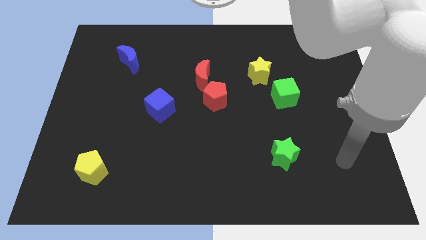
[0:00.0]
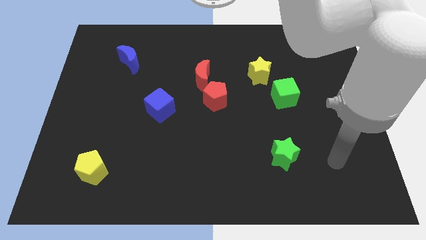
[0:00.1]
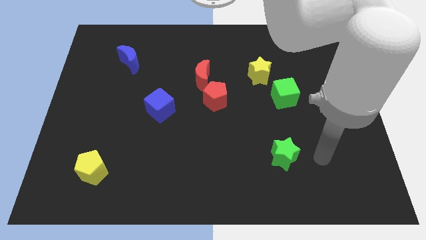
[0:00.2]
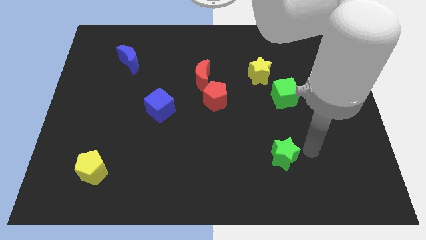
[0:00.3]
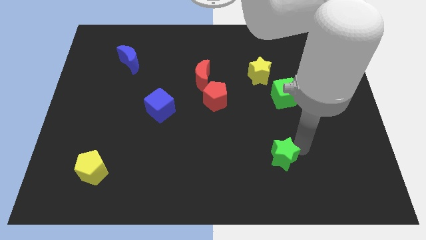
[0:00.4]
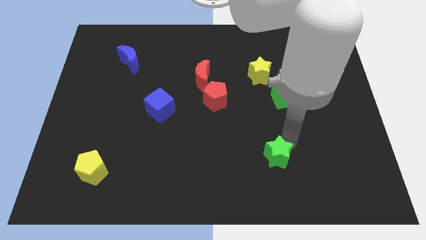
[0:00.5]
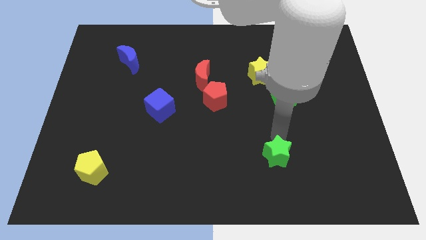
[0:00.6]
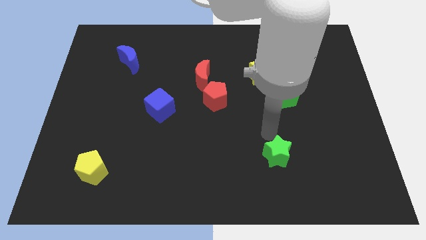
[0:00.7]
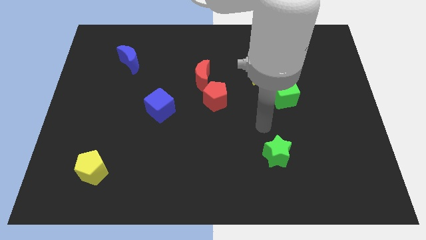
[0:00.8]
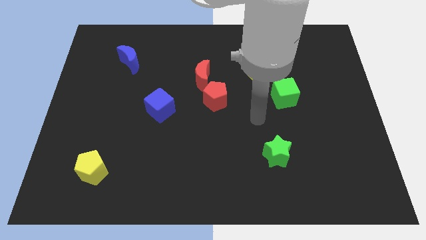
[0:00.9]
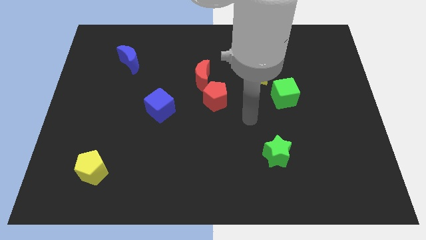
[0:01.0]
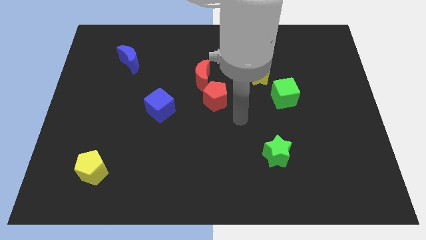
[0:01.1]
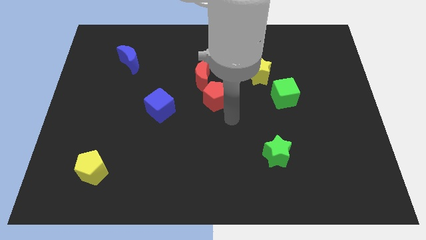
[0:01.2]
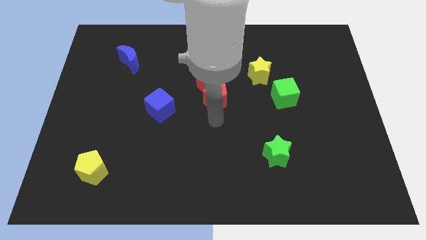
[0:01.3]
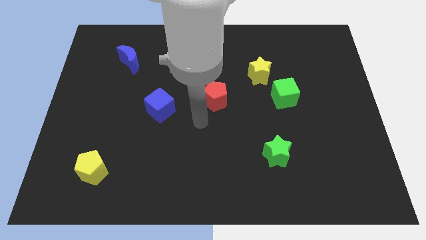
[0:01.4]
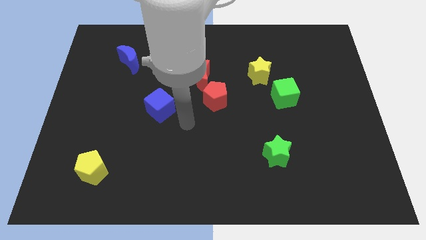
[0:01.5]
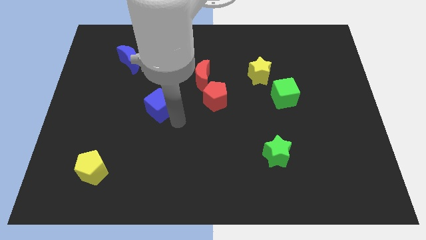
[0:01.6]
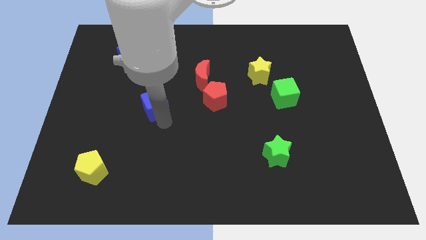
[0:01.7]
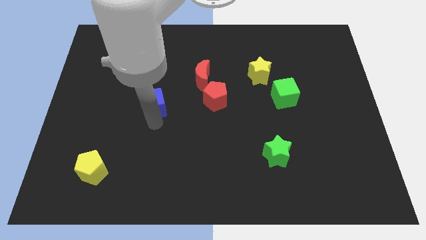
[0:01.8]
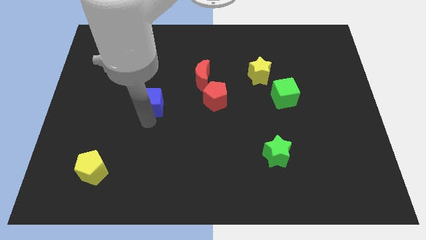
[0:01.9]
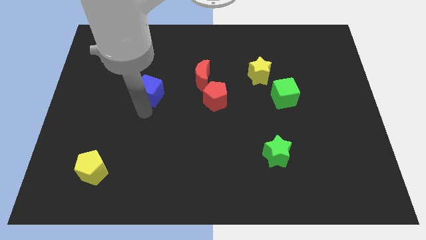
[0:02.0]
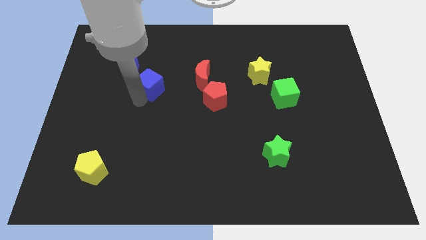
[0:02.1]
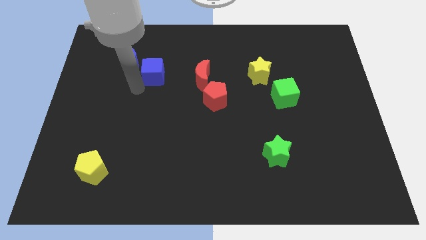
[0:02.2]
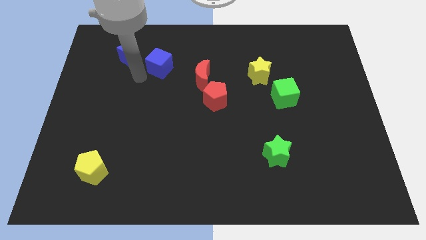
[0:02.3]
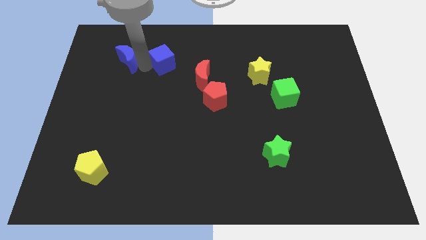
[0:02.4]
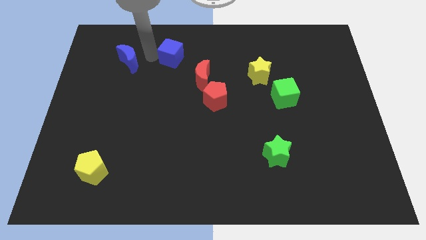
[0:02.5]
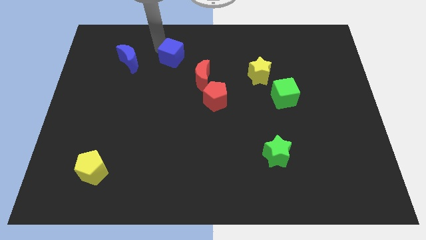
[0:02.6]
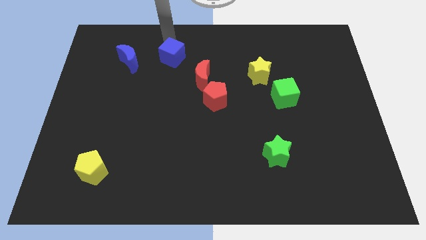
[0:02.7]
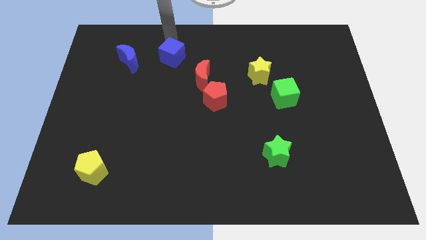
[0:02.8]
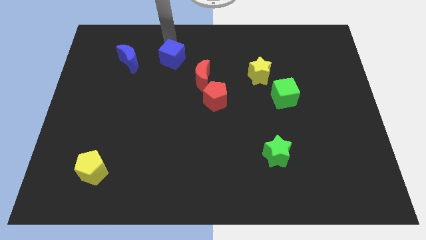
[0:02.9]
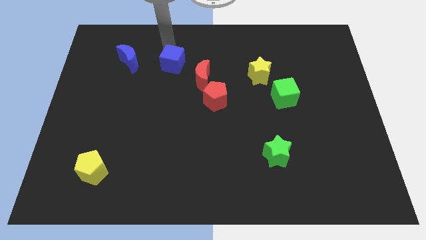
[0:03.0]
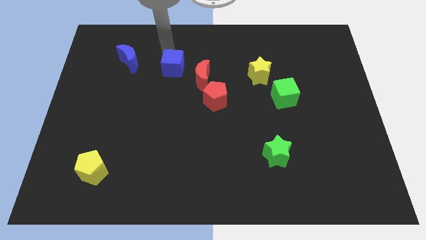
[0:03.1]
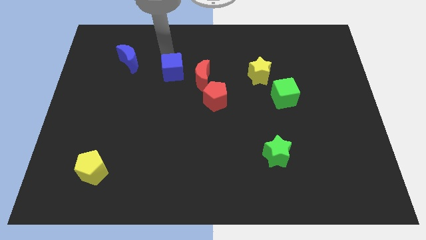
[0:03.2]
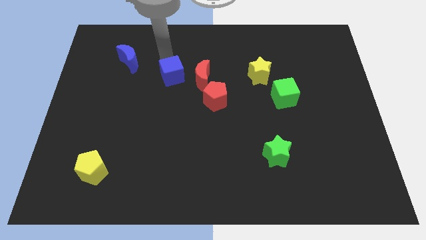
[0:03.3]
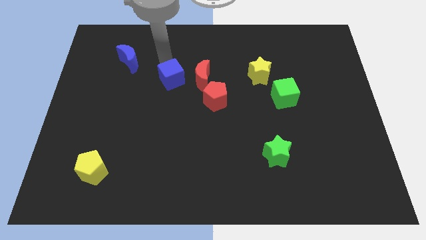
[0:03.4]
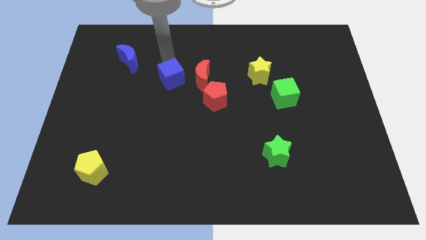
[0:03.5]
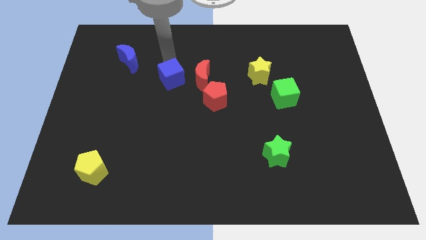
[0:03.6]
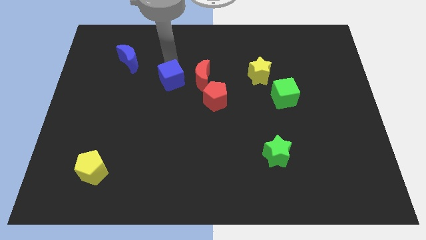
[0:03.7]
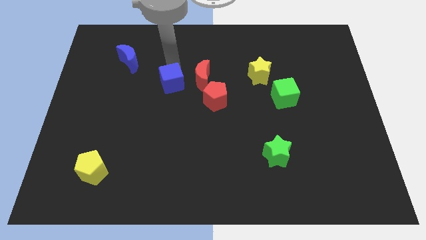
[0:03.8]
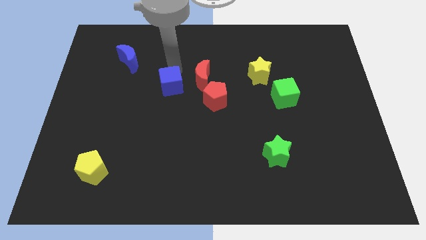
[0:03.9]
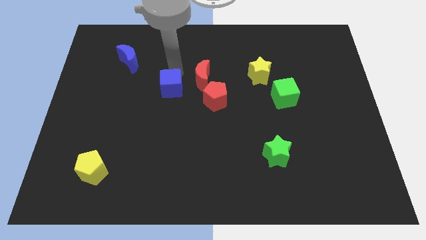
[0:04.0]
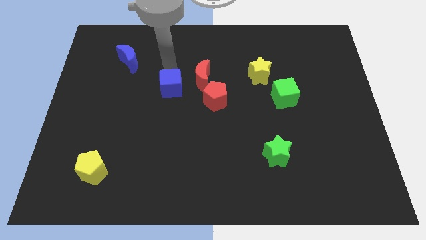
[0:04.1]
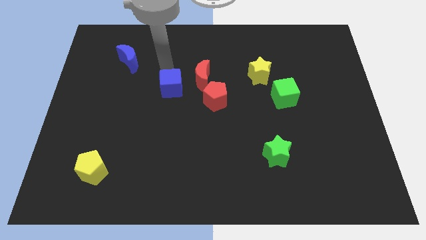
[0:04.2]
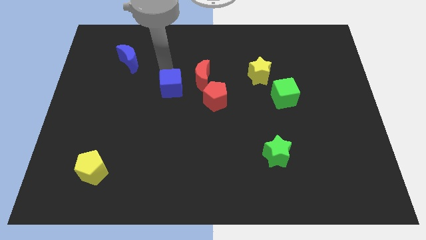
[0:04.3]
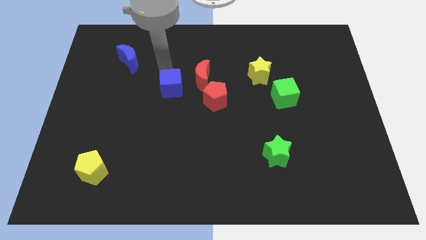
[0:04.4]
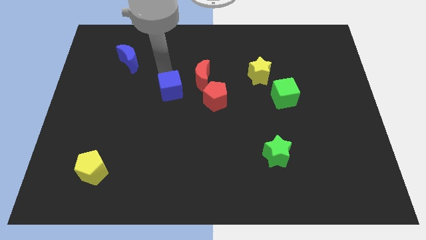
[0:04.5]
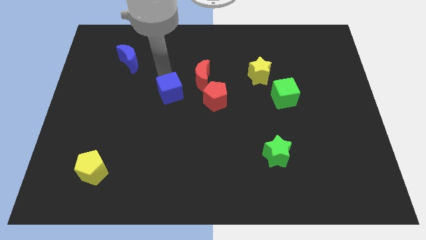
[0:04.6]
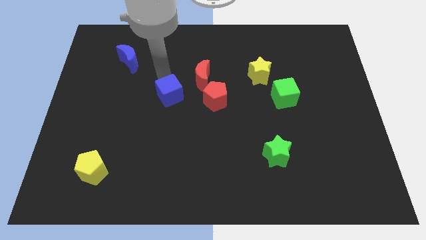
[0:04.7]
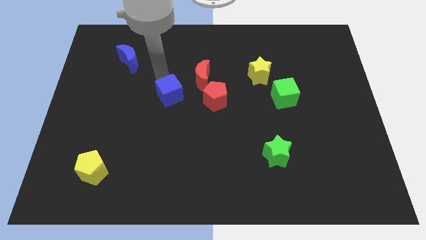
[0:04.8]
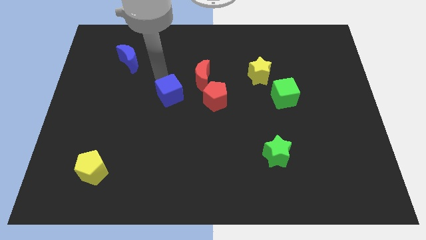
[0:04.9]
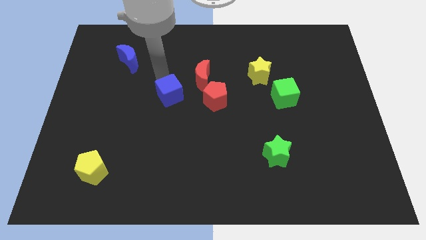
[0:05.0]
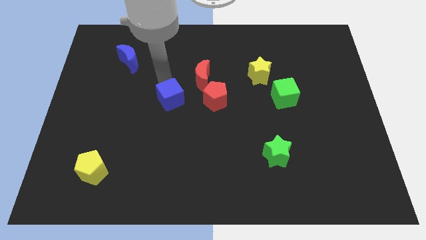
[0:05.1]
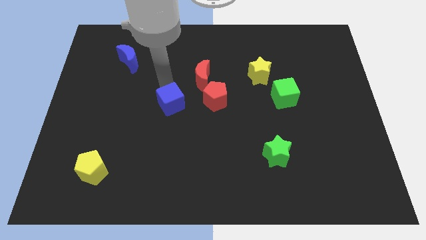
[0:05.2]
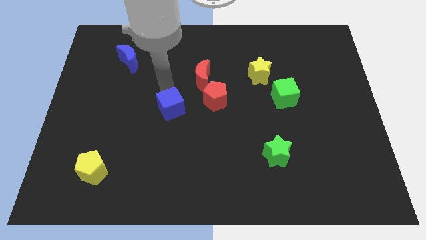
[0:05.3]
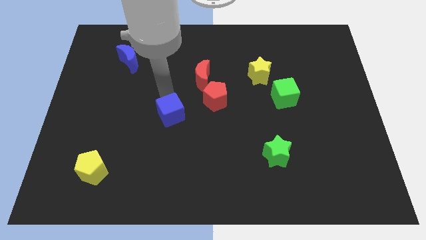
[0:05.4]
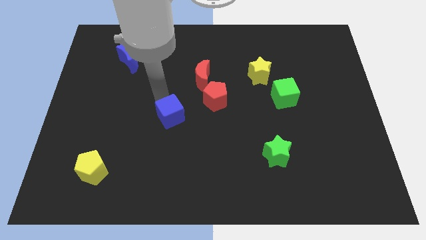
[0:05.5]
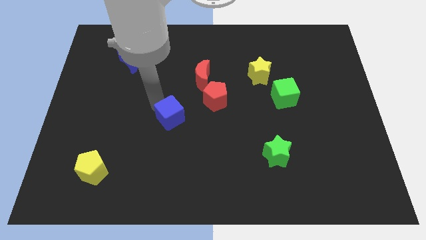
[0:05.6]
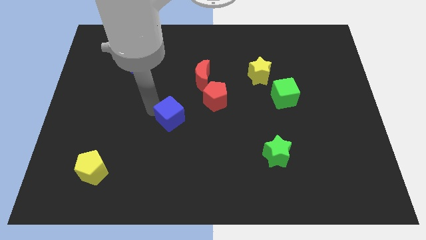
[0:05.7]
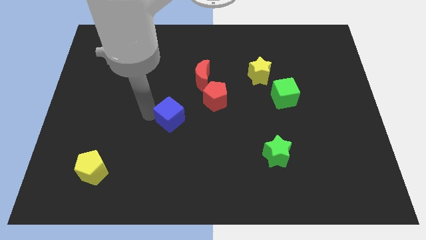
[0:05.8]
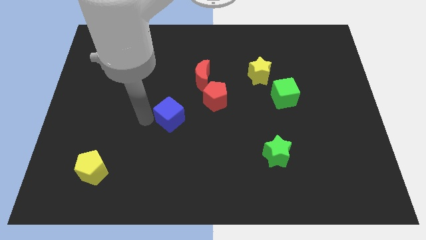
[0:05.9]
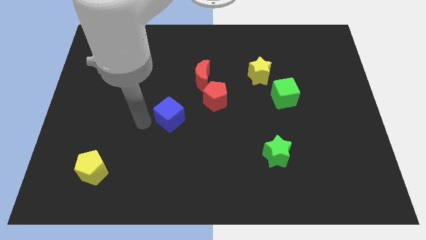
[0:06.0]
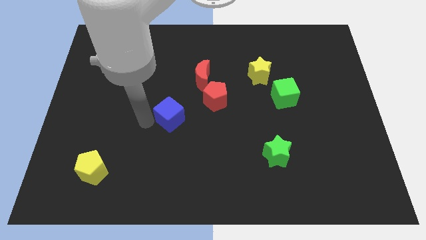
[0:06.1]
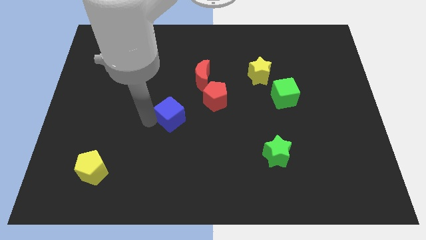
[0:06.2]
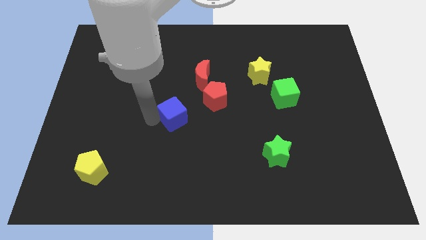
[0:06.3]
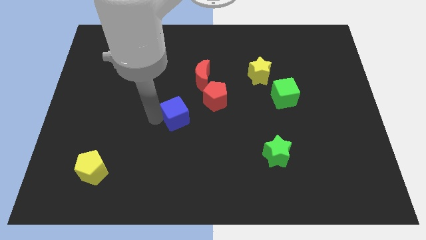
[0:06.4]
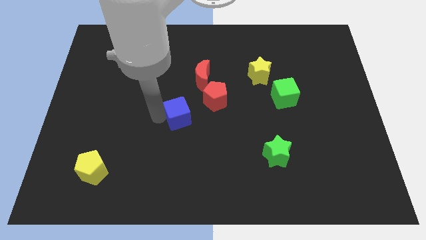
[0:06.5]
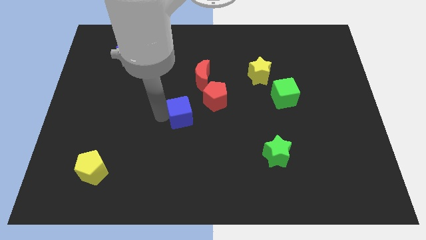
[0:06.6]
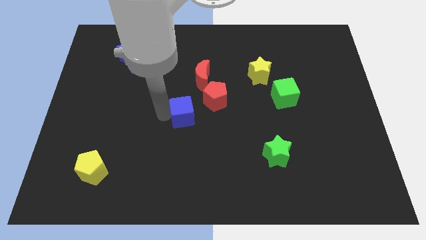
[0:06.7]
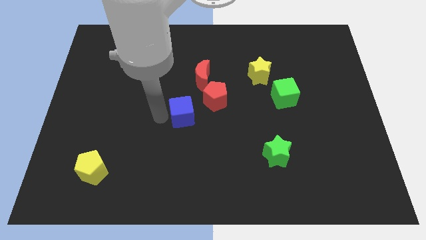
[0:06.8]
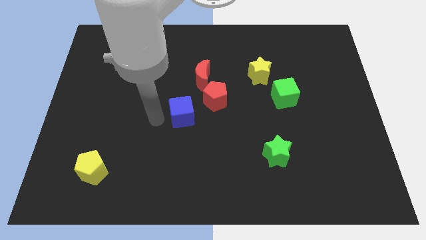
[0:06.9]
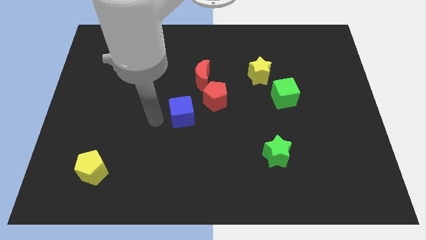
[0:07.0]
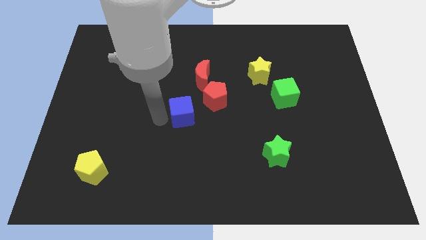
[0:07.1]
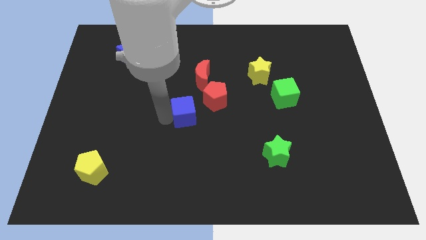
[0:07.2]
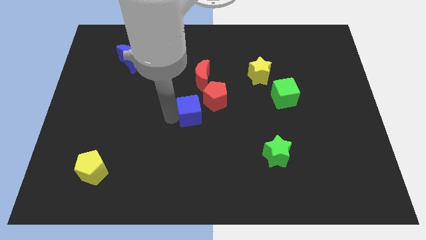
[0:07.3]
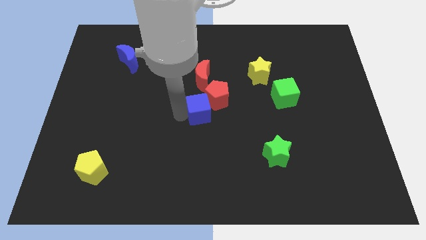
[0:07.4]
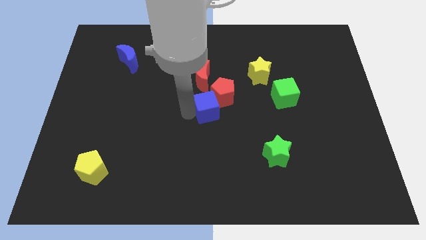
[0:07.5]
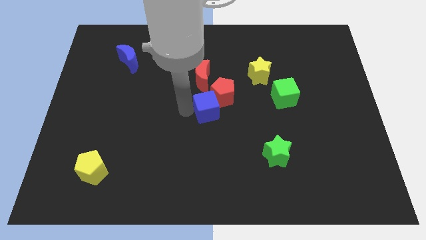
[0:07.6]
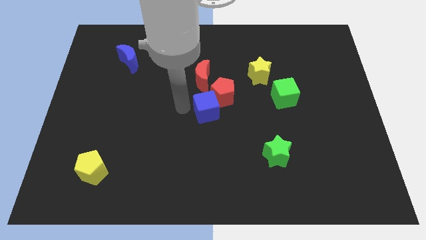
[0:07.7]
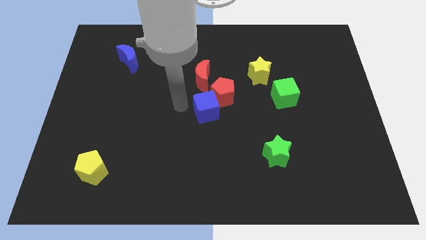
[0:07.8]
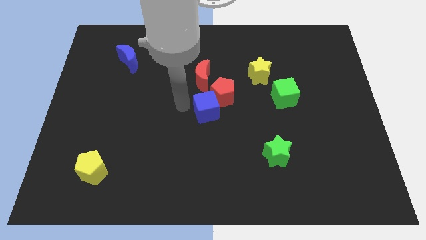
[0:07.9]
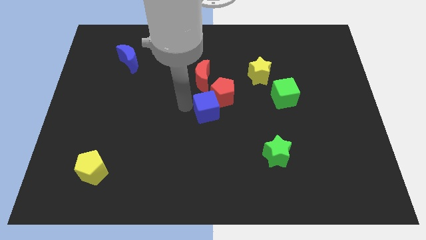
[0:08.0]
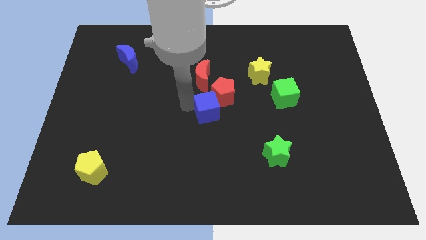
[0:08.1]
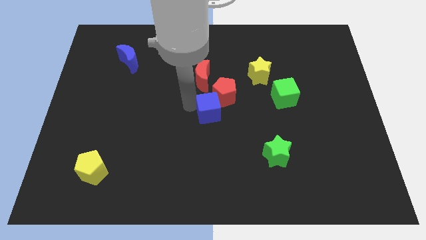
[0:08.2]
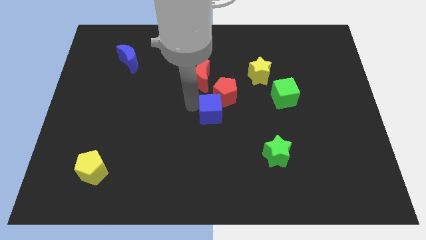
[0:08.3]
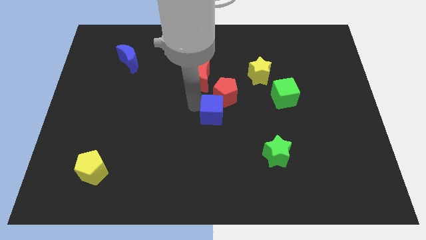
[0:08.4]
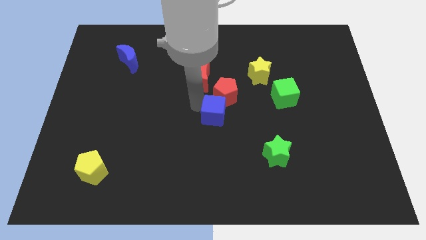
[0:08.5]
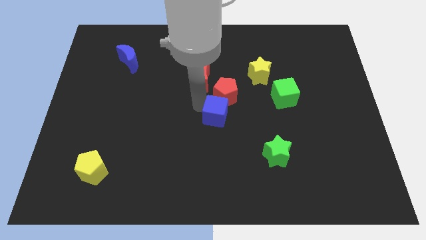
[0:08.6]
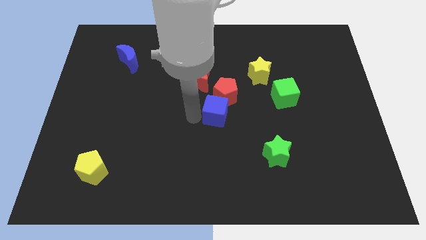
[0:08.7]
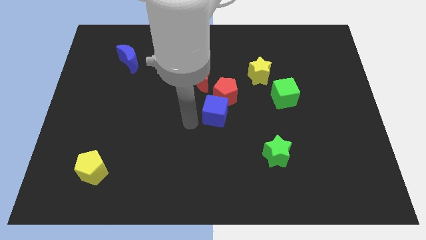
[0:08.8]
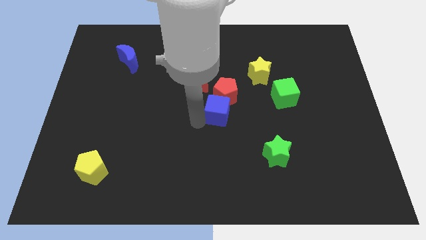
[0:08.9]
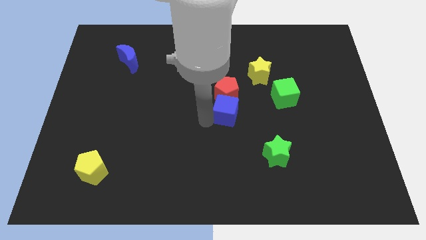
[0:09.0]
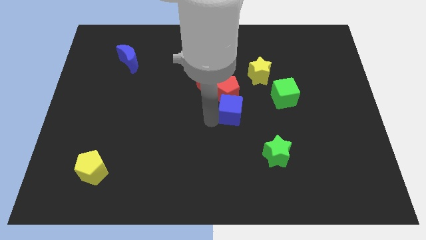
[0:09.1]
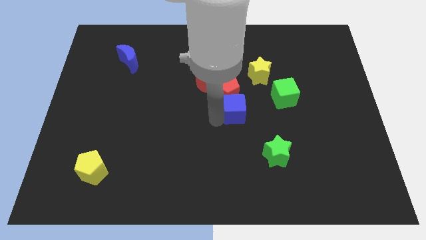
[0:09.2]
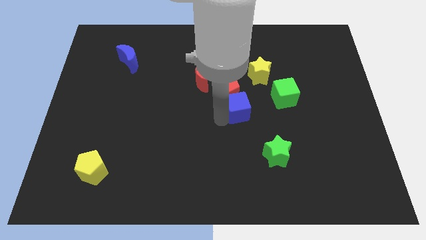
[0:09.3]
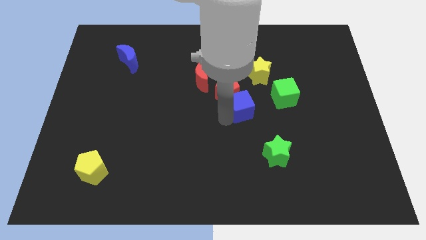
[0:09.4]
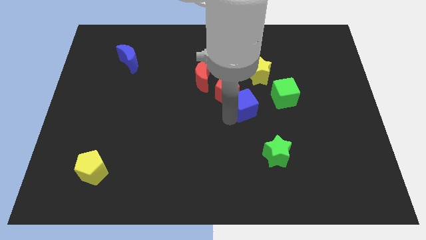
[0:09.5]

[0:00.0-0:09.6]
push the blue cube just right of the red pentagon
